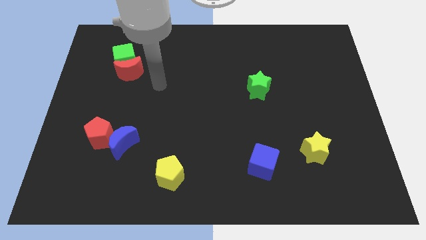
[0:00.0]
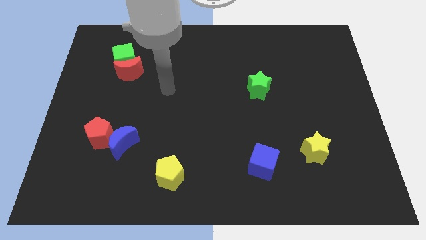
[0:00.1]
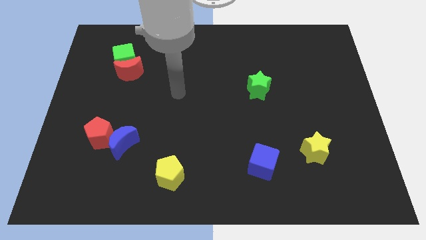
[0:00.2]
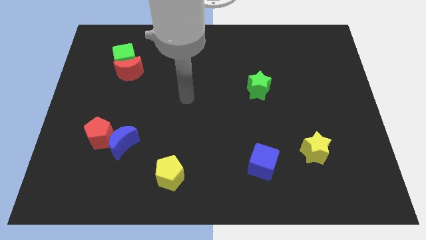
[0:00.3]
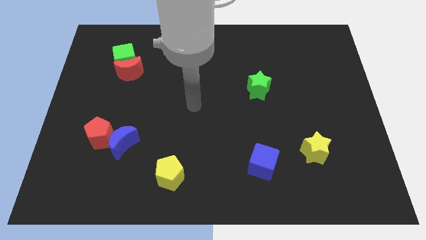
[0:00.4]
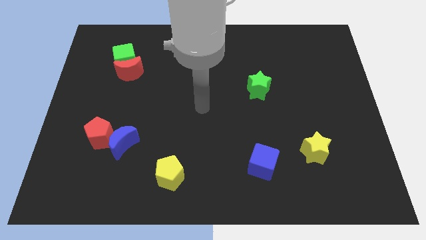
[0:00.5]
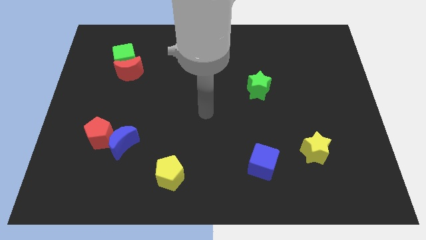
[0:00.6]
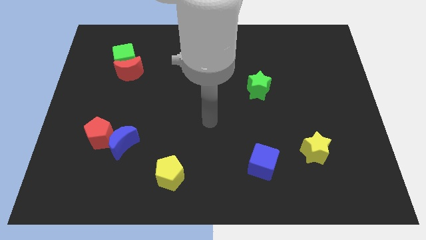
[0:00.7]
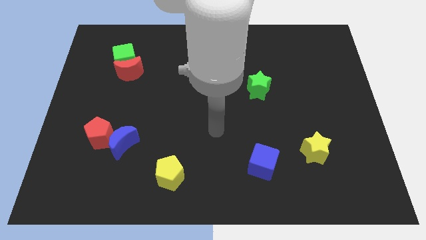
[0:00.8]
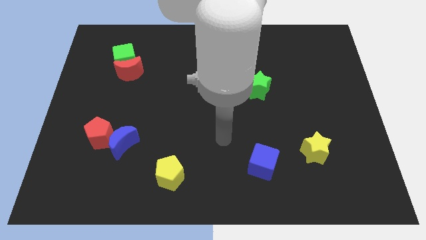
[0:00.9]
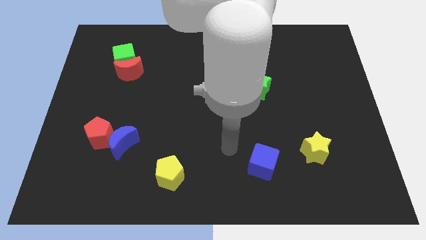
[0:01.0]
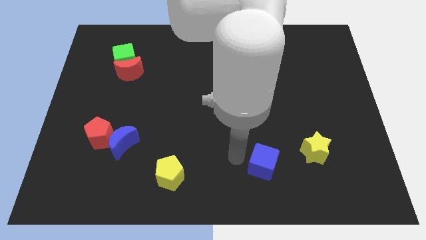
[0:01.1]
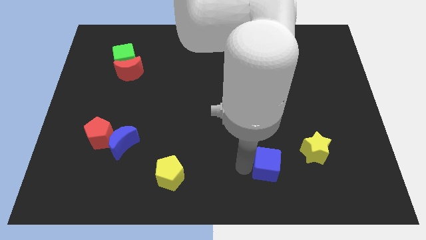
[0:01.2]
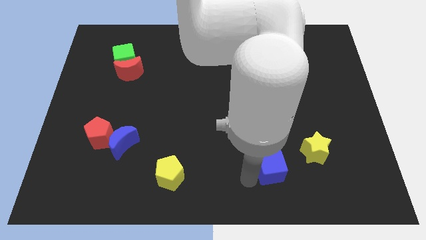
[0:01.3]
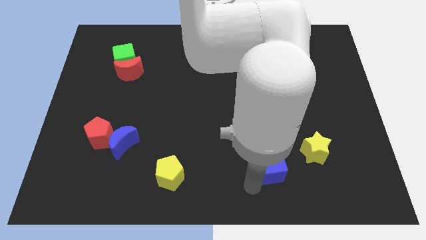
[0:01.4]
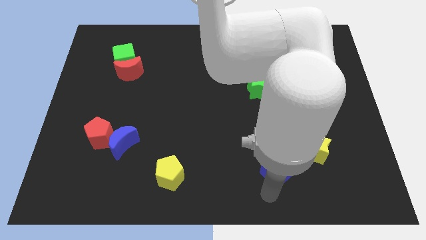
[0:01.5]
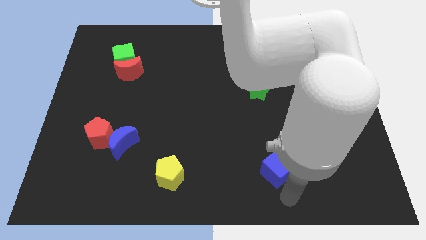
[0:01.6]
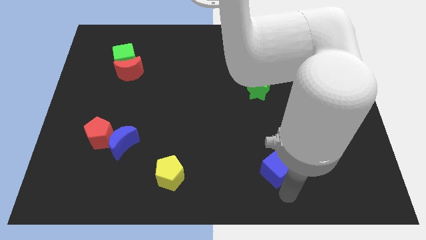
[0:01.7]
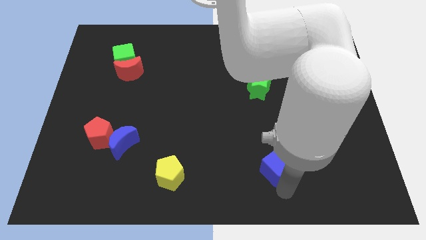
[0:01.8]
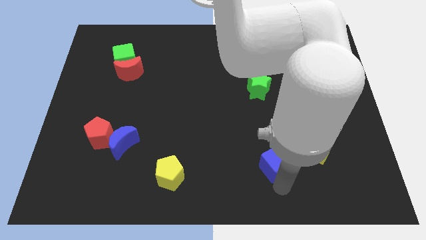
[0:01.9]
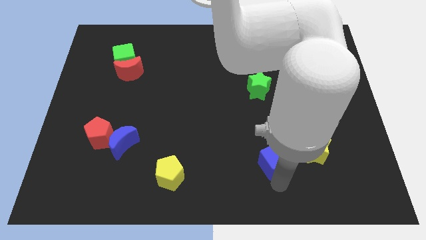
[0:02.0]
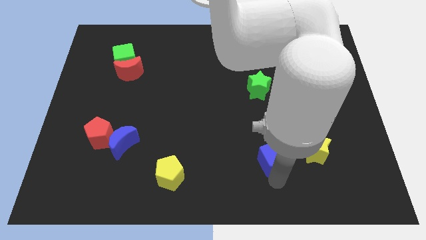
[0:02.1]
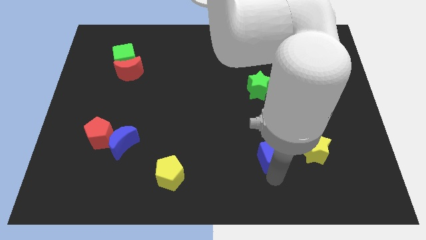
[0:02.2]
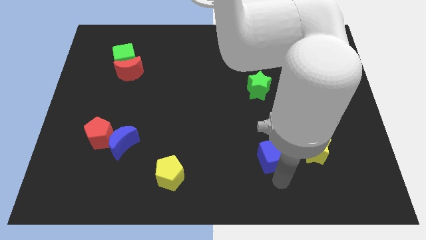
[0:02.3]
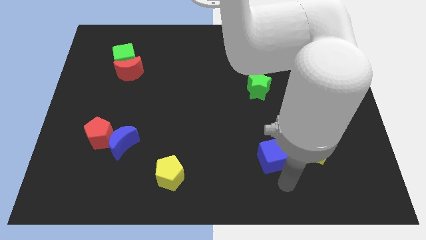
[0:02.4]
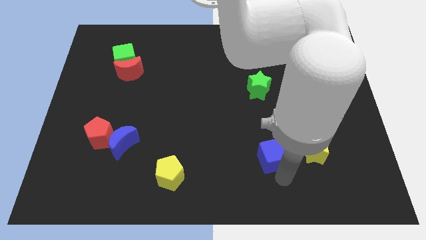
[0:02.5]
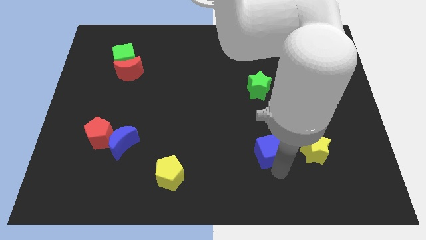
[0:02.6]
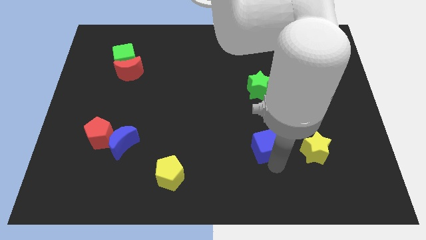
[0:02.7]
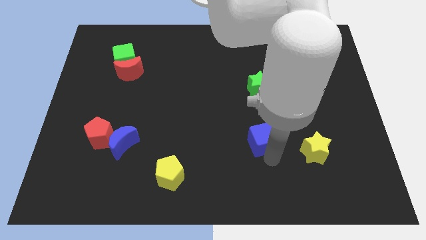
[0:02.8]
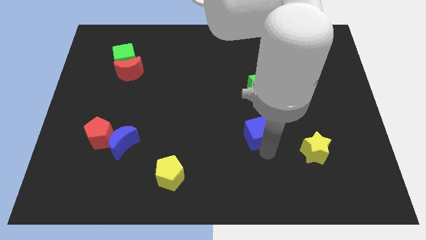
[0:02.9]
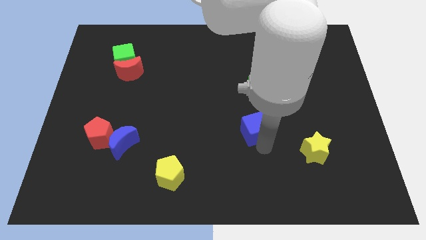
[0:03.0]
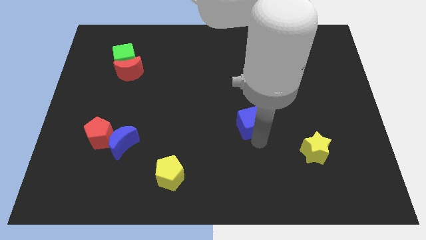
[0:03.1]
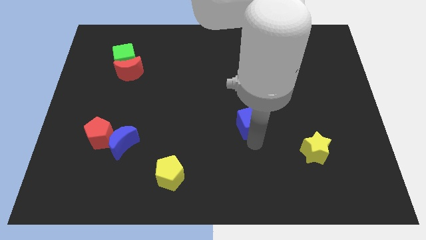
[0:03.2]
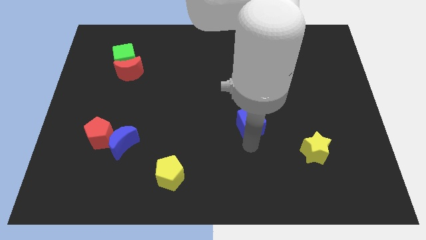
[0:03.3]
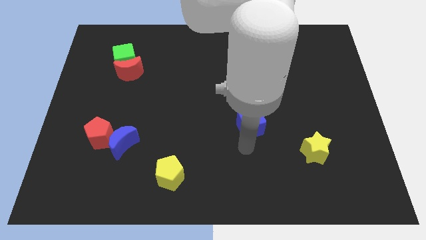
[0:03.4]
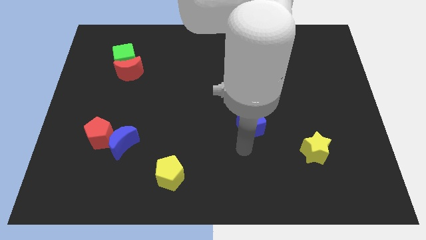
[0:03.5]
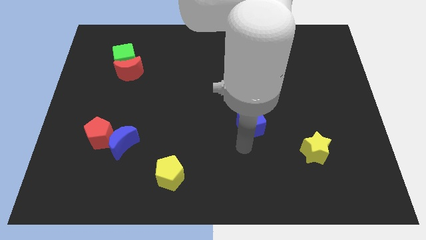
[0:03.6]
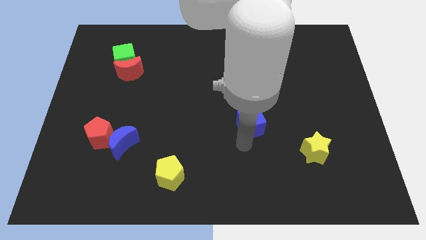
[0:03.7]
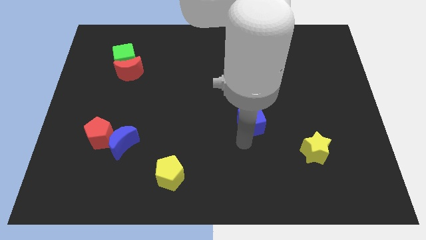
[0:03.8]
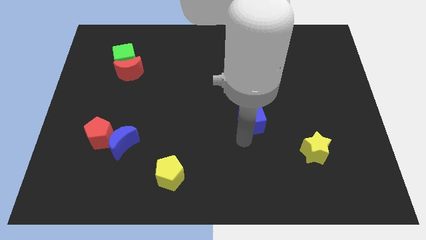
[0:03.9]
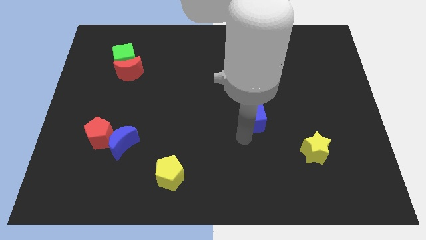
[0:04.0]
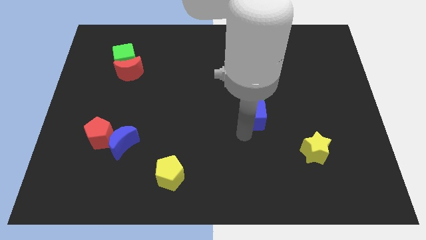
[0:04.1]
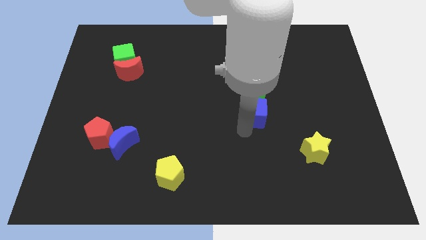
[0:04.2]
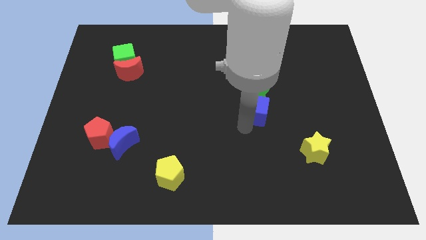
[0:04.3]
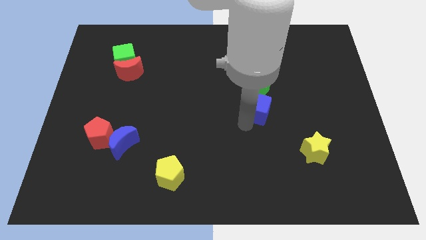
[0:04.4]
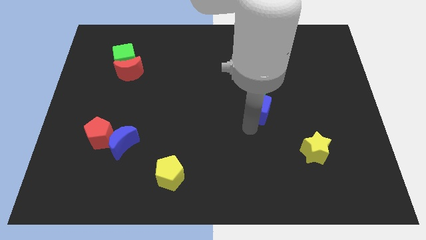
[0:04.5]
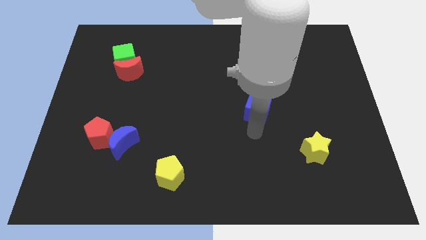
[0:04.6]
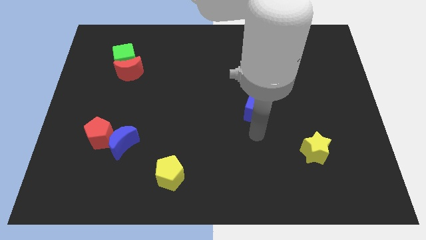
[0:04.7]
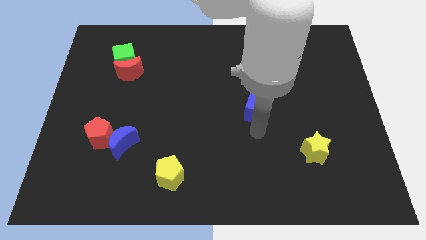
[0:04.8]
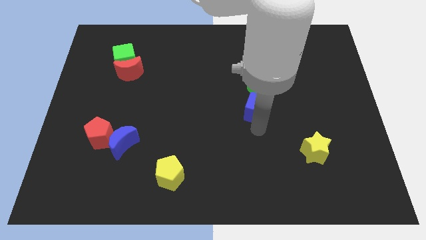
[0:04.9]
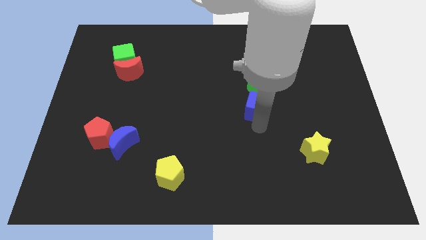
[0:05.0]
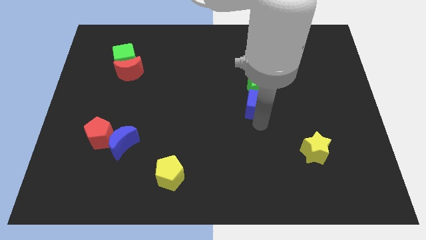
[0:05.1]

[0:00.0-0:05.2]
put the blue cube close to the green star

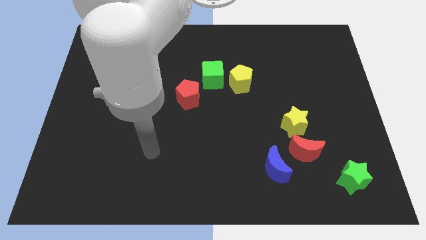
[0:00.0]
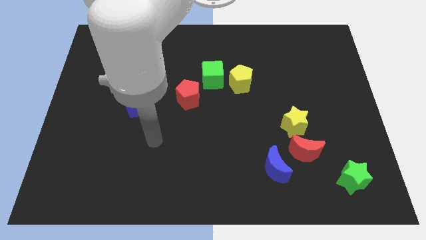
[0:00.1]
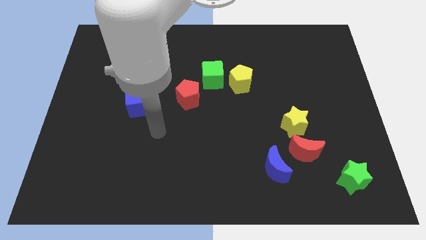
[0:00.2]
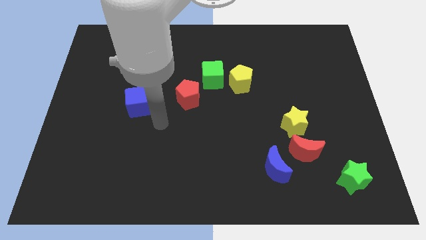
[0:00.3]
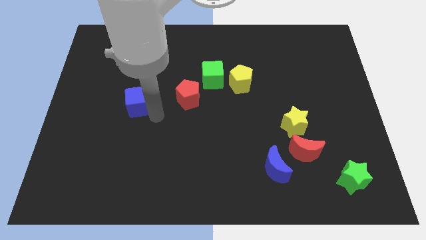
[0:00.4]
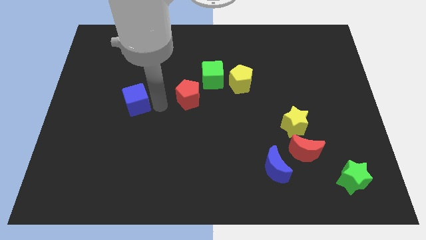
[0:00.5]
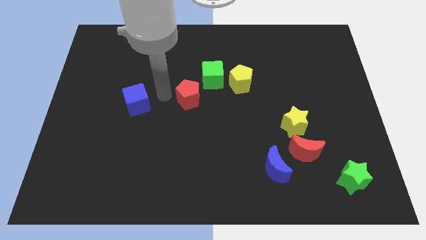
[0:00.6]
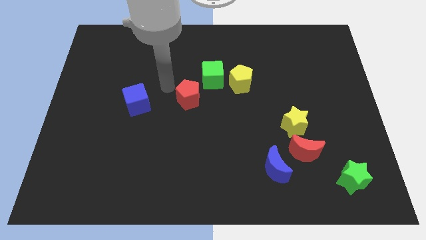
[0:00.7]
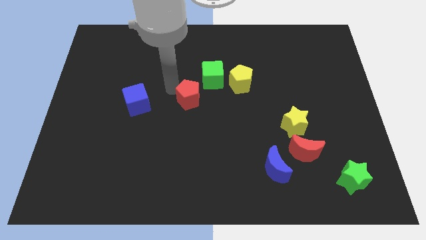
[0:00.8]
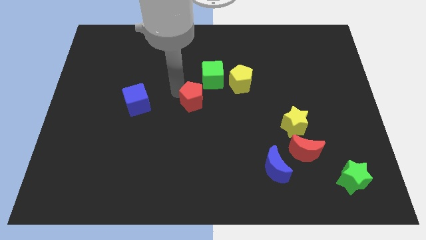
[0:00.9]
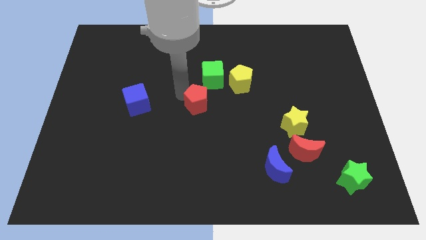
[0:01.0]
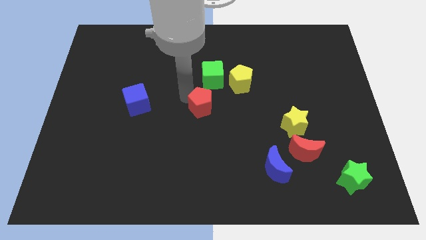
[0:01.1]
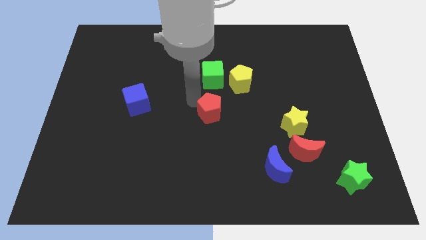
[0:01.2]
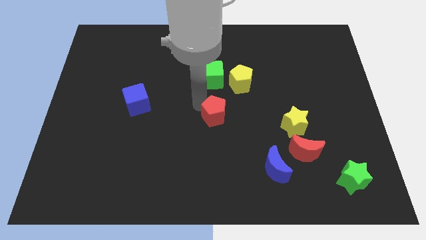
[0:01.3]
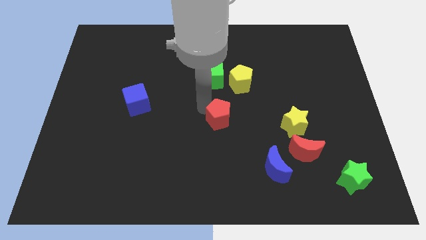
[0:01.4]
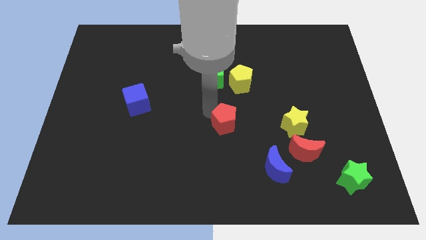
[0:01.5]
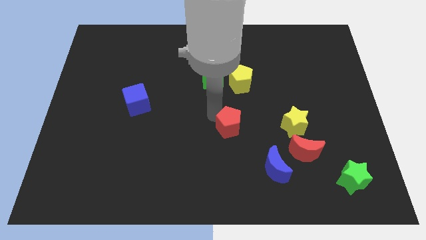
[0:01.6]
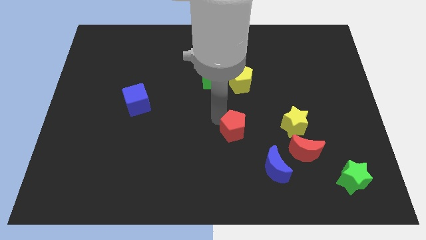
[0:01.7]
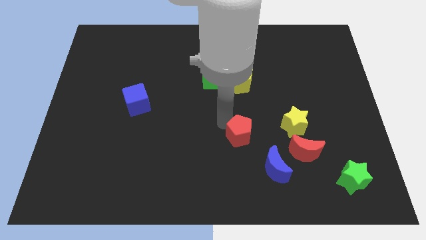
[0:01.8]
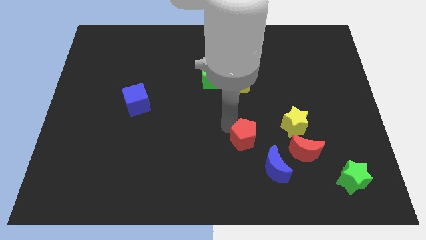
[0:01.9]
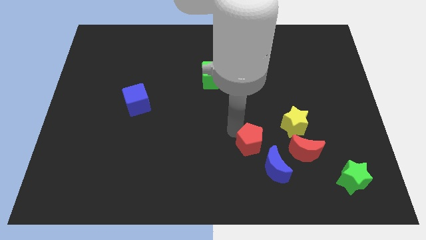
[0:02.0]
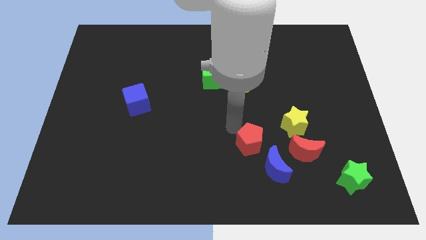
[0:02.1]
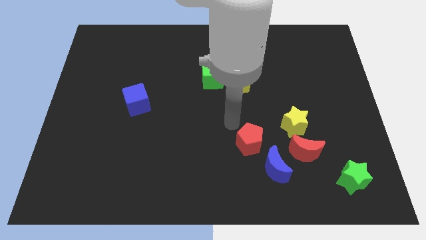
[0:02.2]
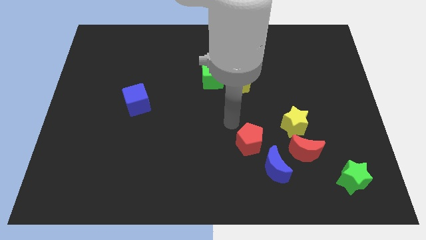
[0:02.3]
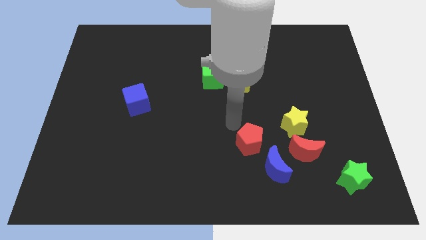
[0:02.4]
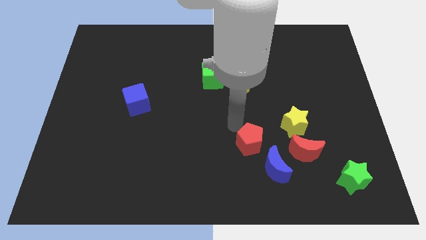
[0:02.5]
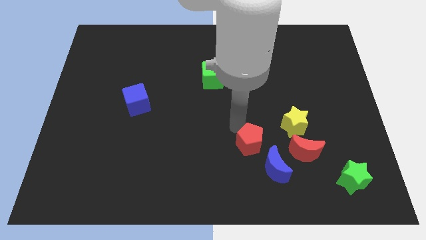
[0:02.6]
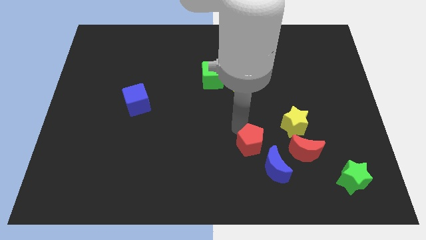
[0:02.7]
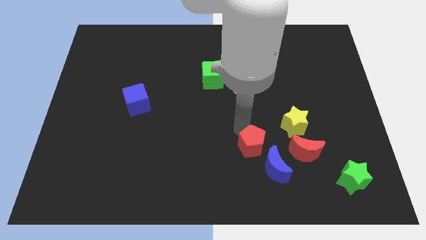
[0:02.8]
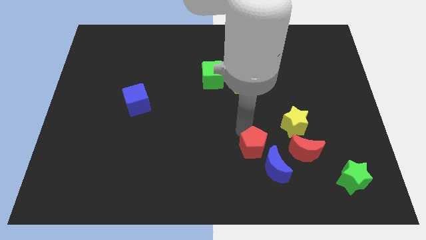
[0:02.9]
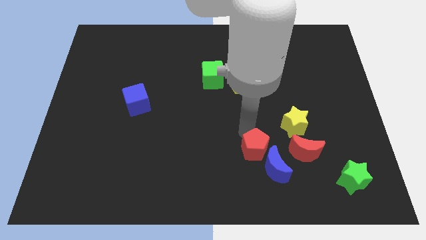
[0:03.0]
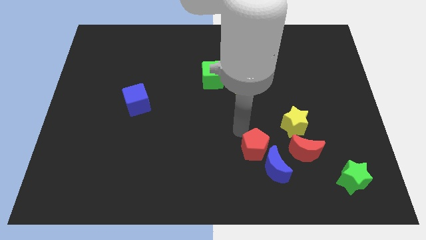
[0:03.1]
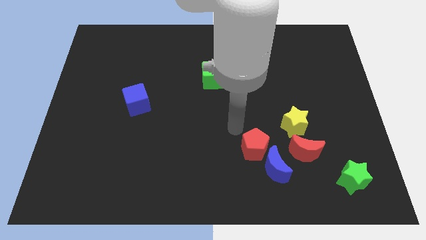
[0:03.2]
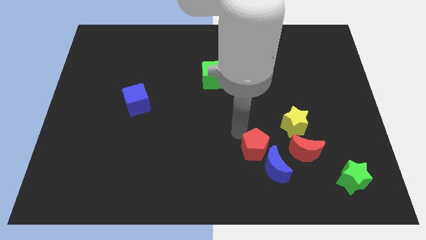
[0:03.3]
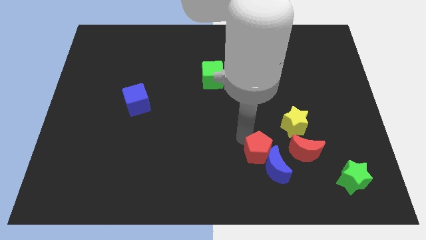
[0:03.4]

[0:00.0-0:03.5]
put the red pentagon close to the blue moon
